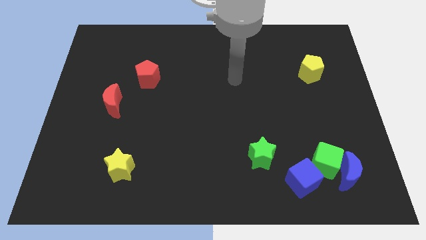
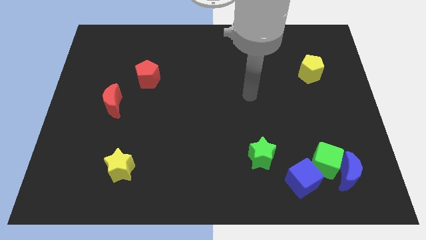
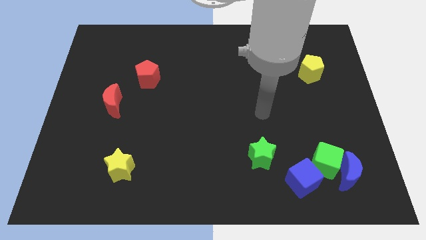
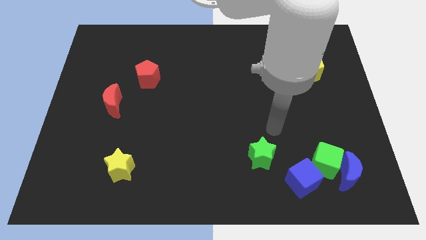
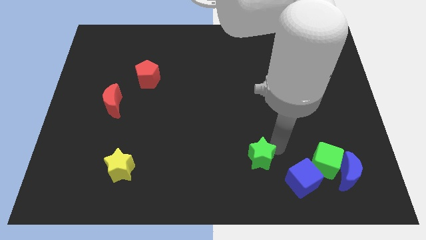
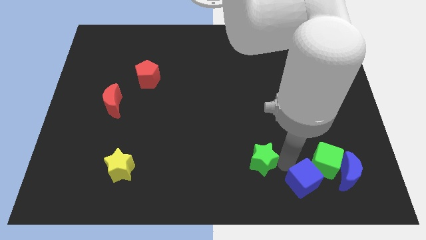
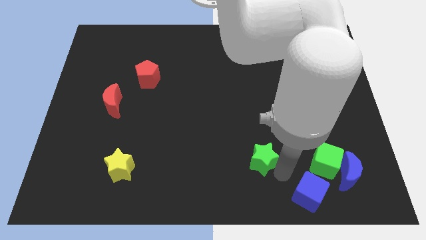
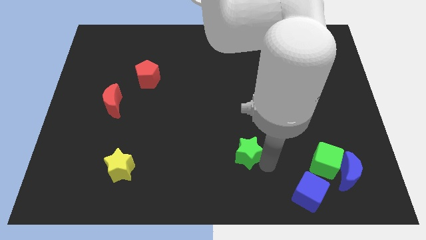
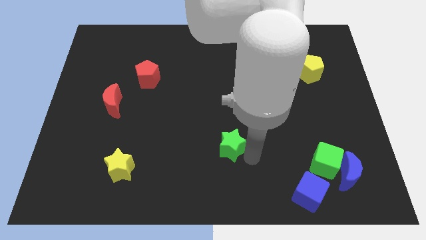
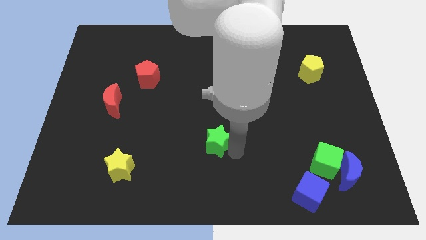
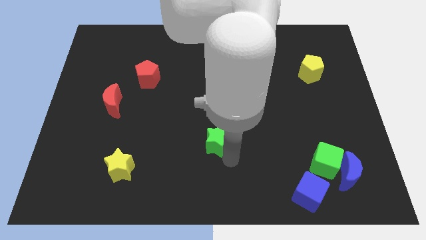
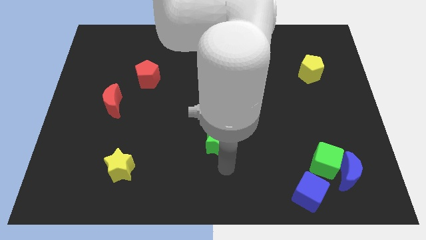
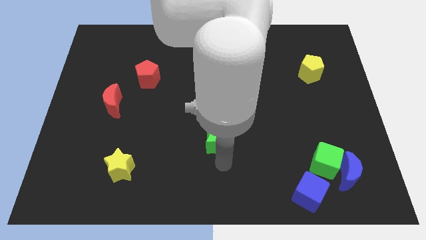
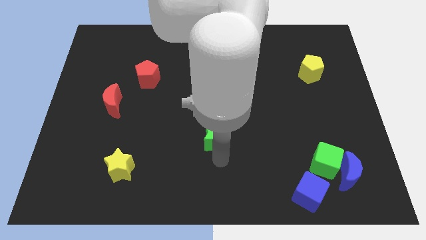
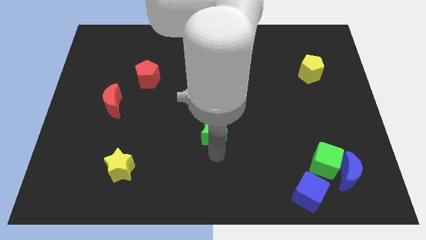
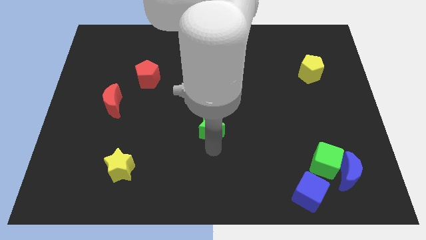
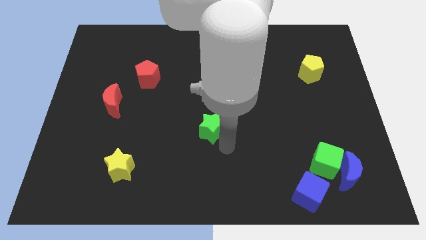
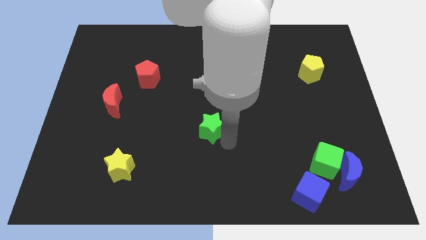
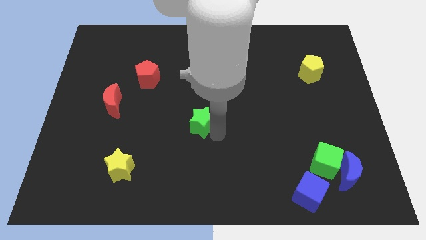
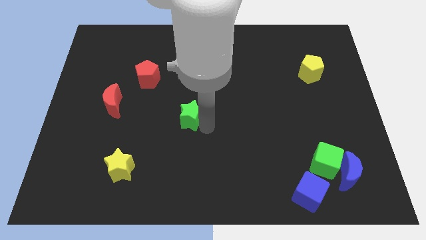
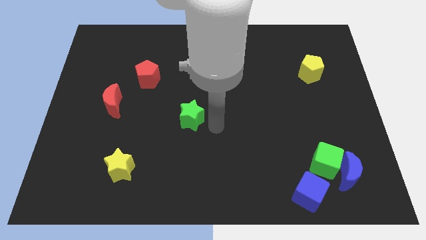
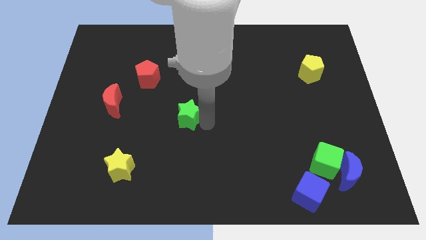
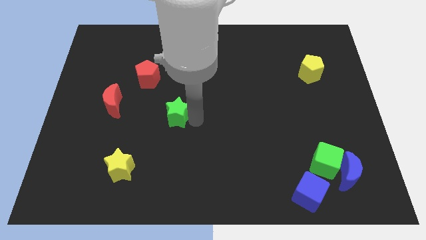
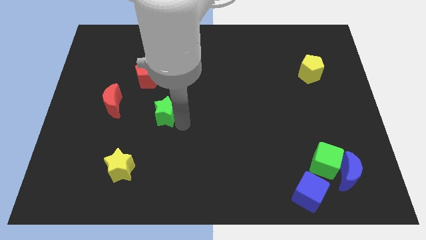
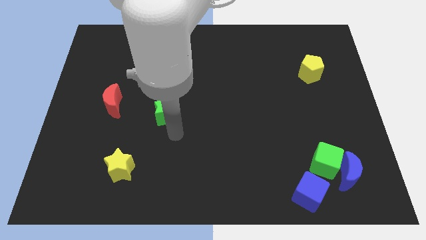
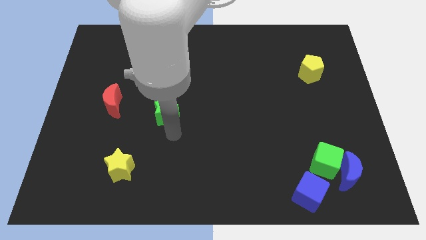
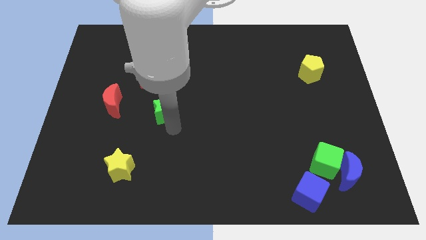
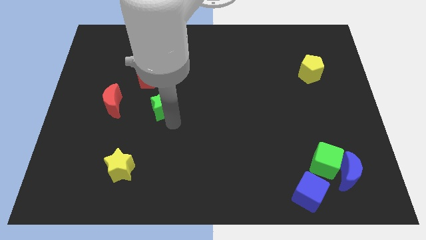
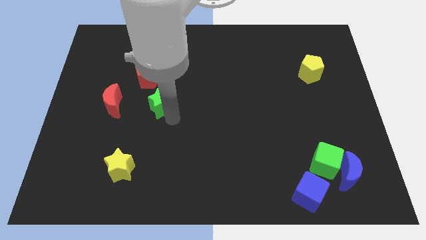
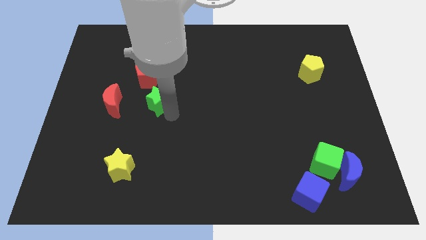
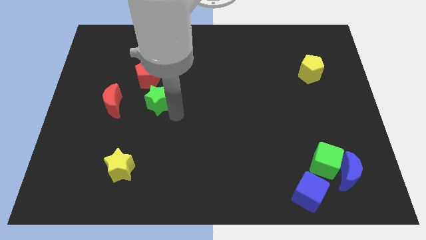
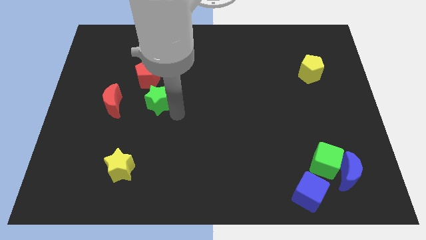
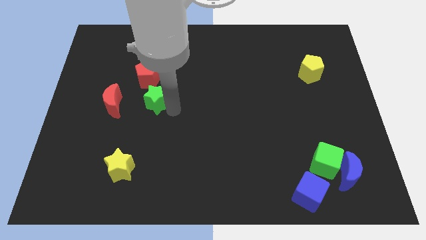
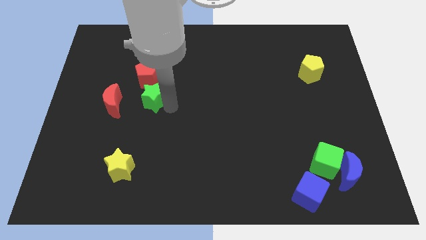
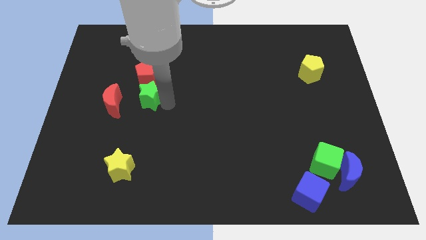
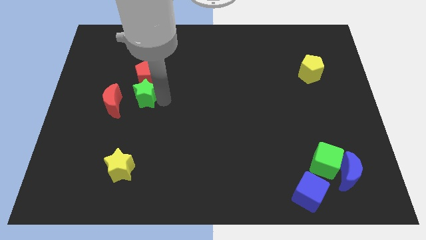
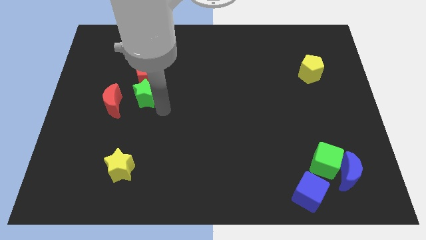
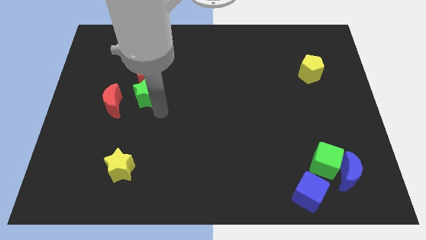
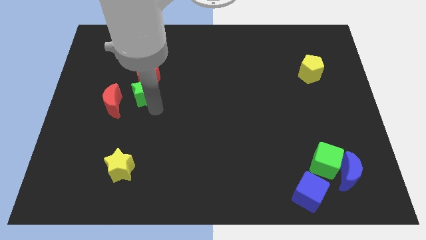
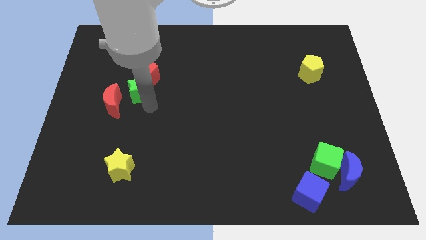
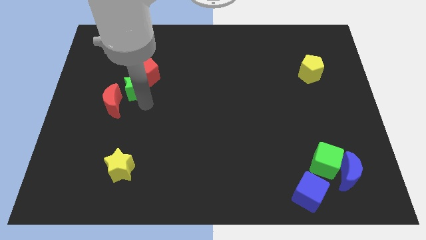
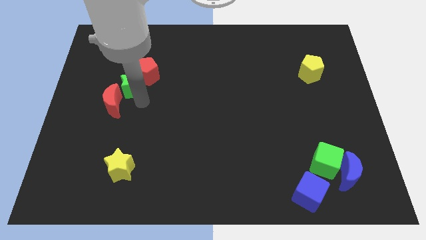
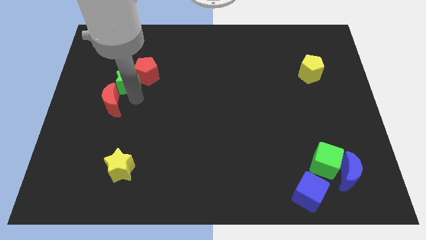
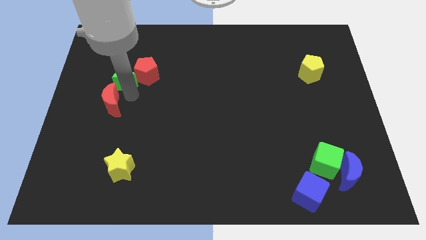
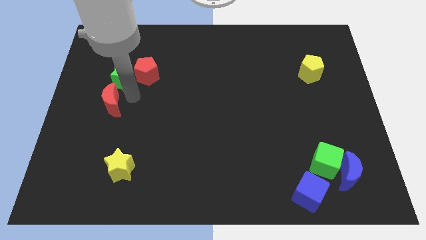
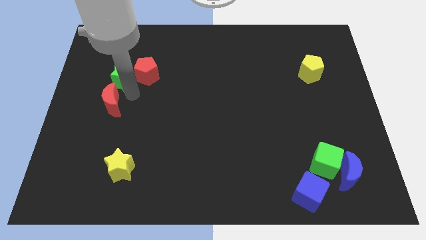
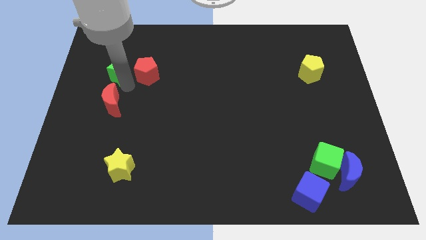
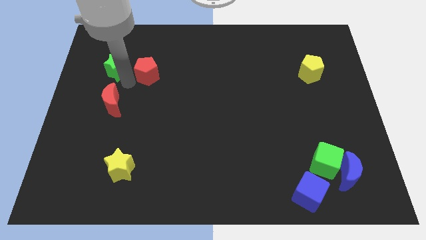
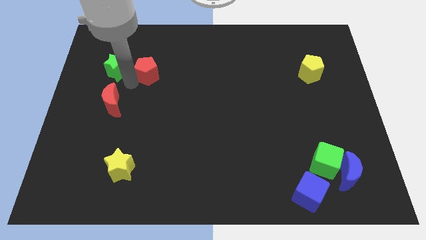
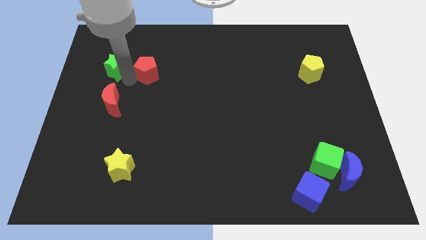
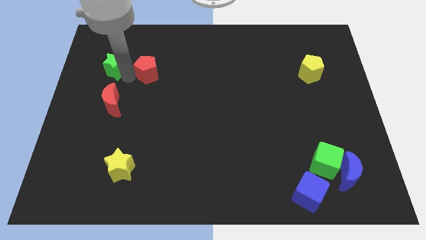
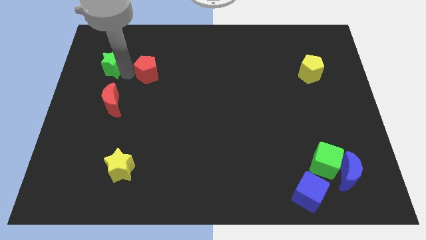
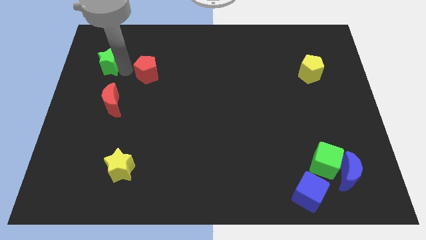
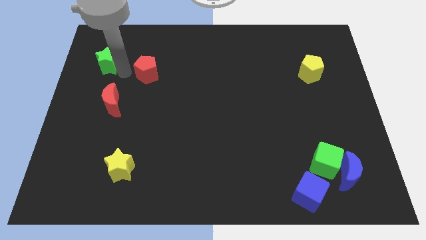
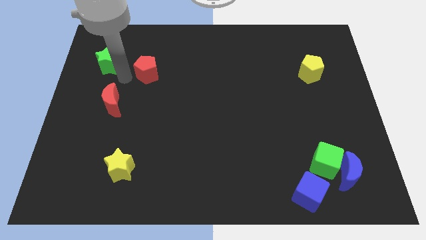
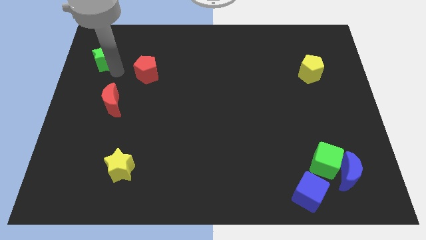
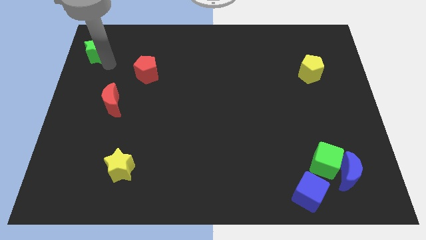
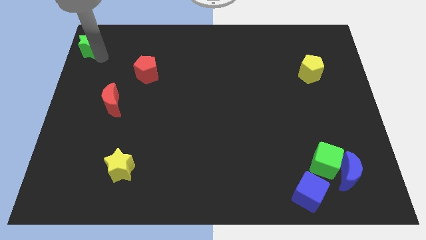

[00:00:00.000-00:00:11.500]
push the green star to the top left

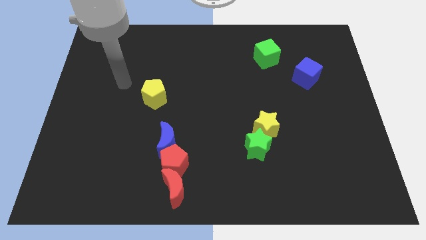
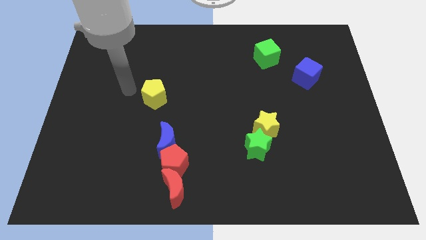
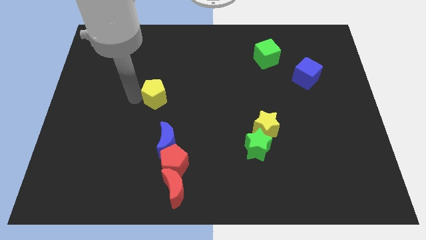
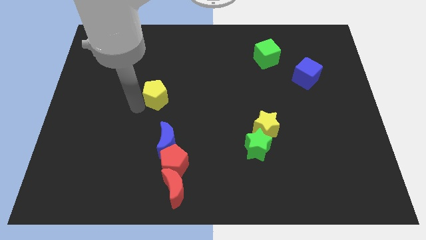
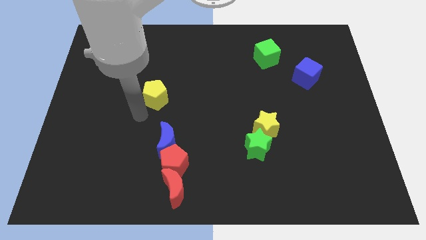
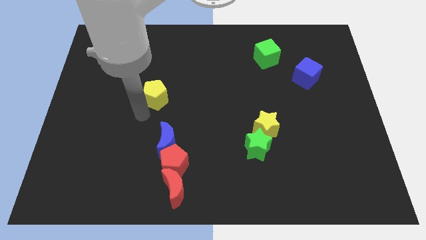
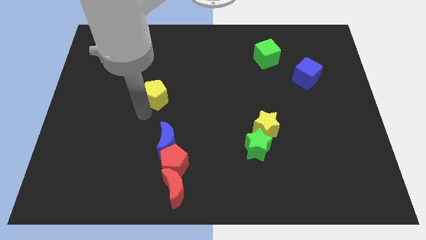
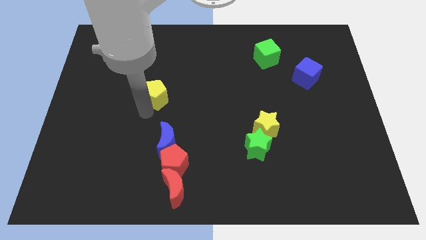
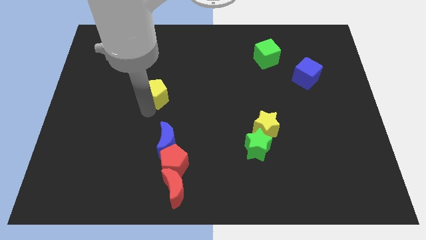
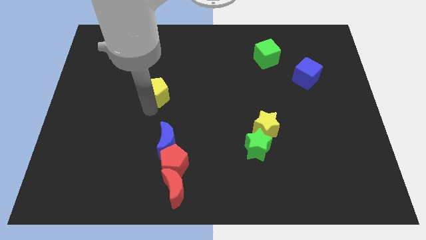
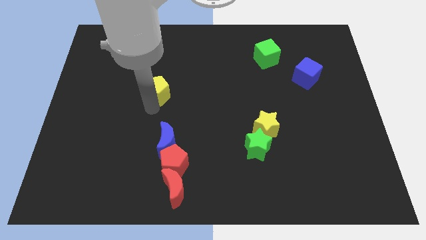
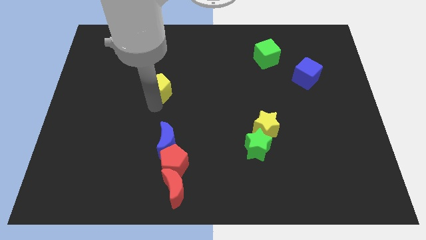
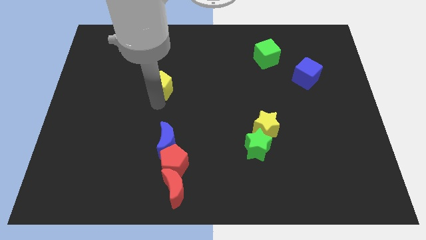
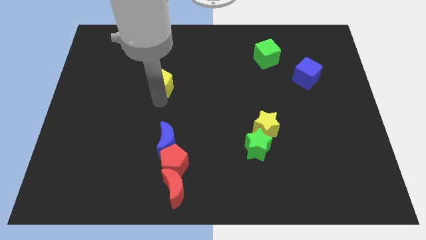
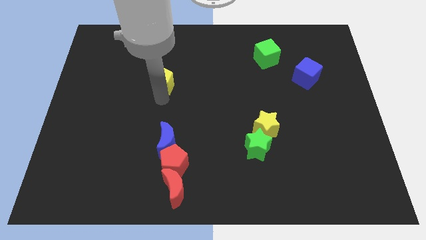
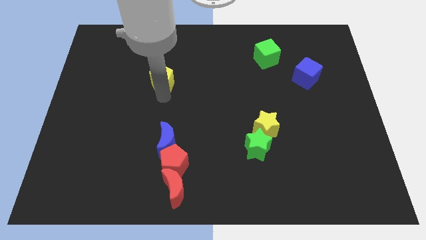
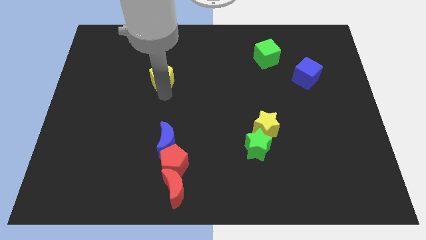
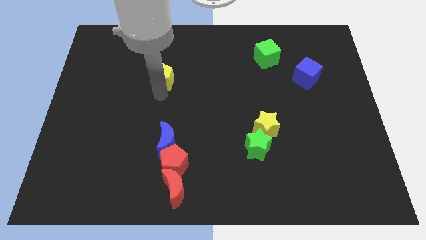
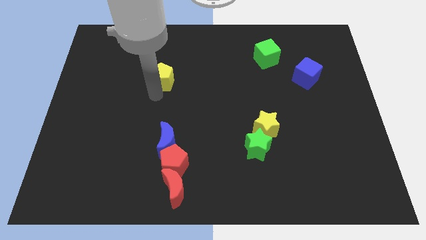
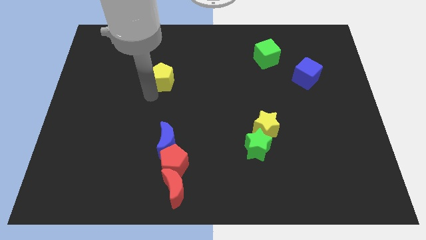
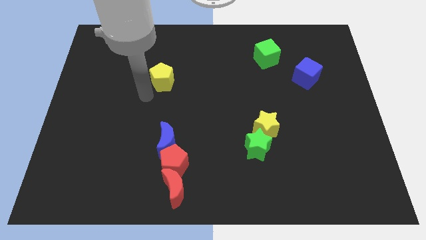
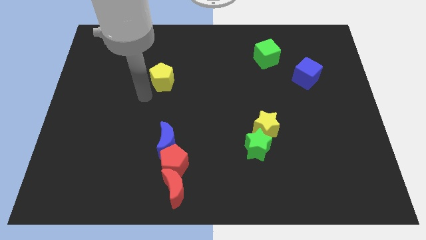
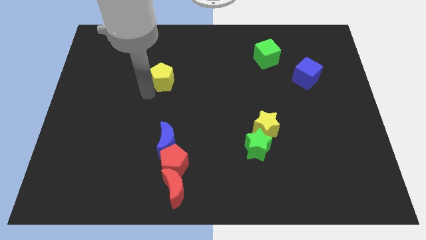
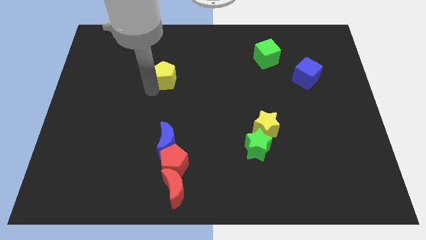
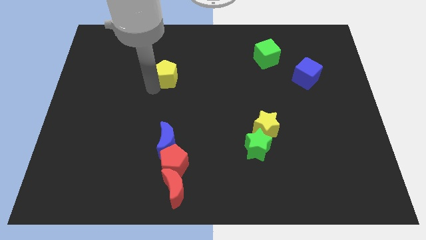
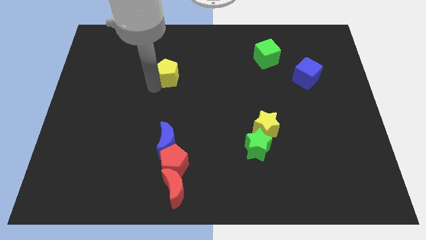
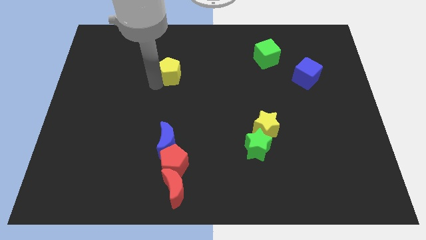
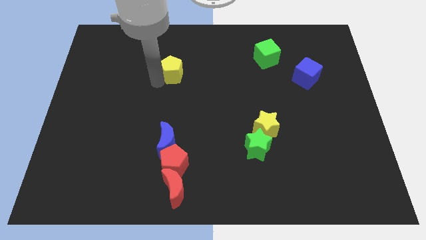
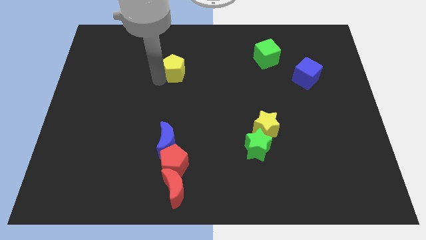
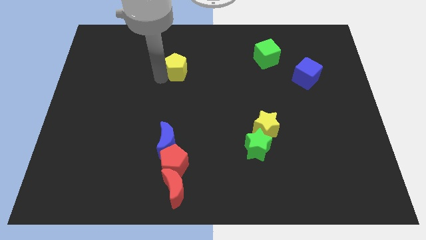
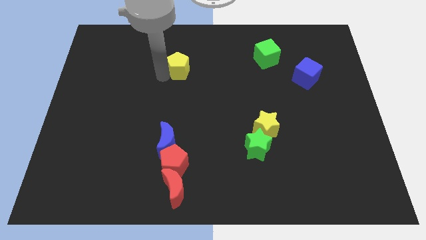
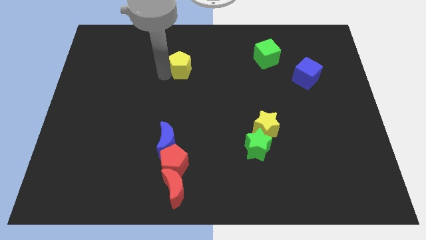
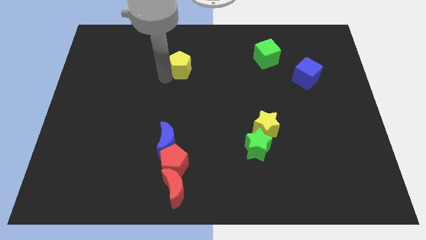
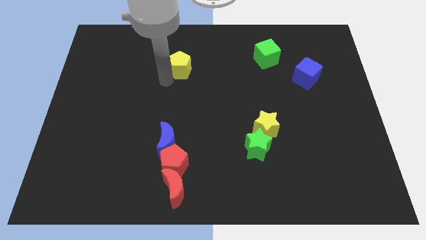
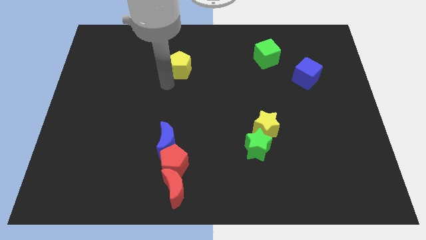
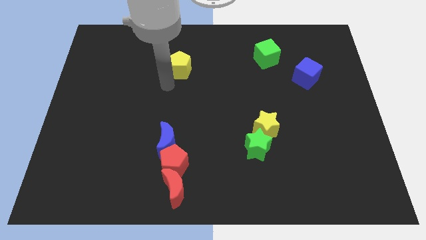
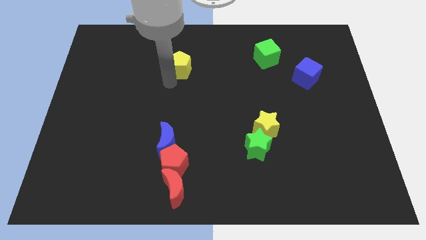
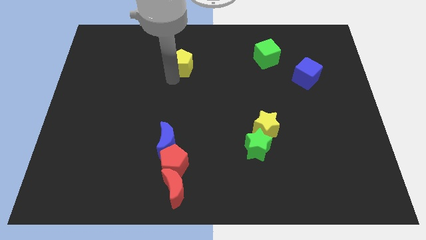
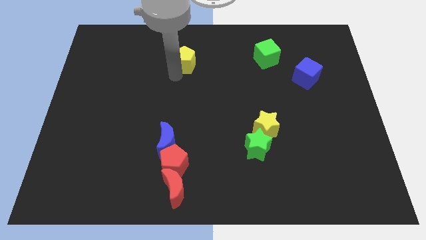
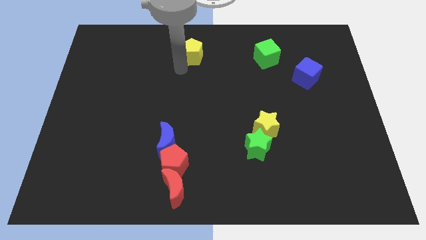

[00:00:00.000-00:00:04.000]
move the yellow pentagon to the towards your base
